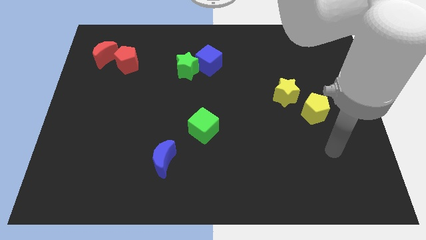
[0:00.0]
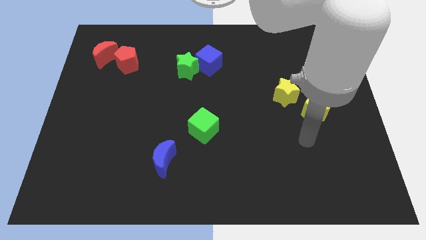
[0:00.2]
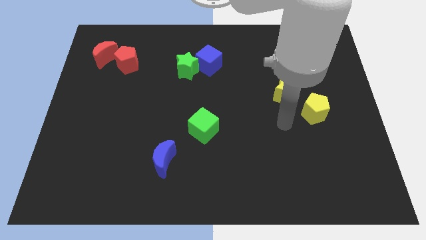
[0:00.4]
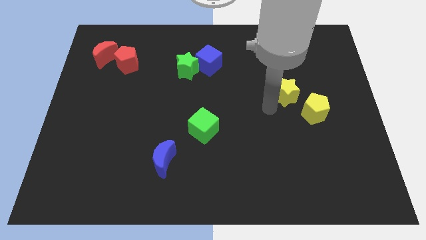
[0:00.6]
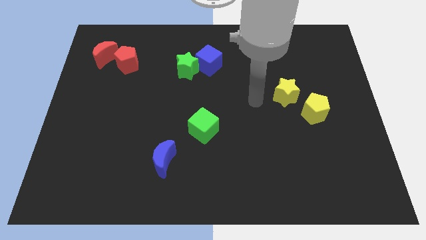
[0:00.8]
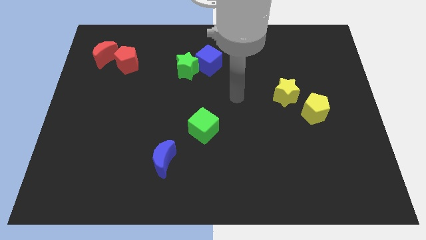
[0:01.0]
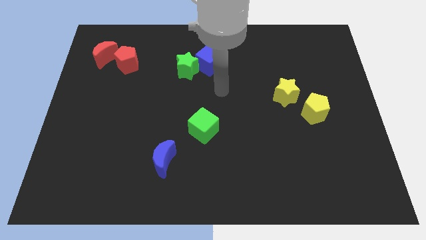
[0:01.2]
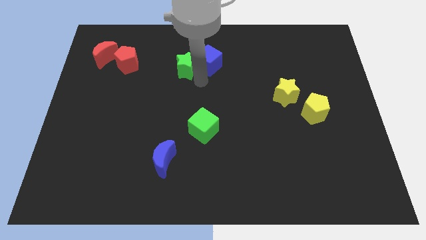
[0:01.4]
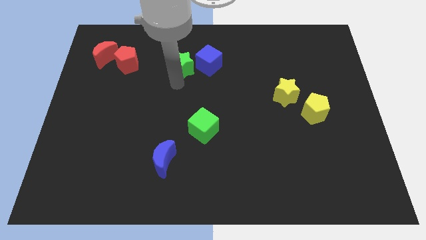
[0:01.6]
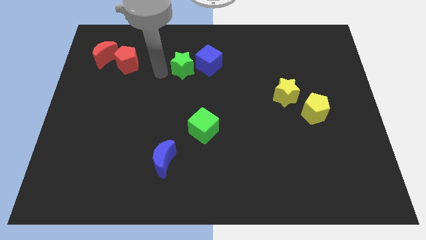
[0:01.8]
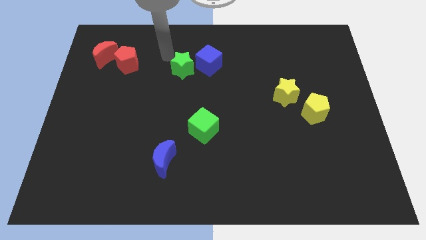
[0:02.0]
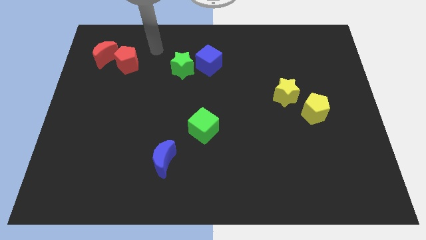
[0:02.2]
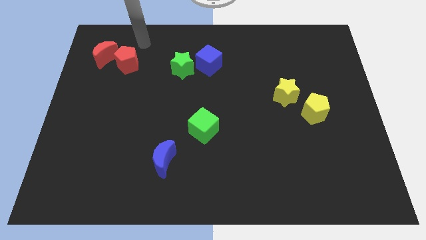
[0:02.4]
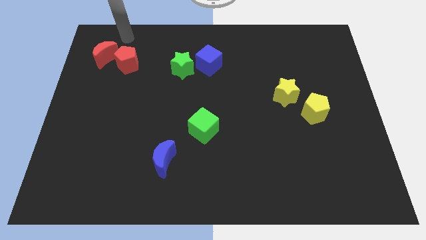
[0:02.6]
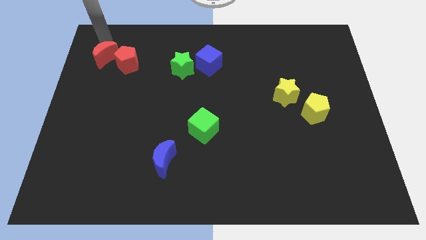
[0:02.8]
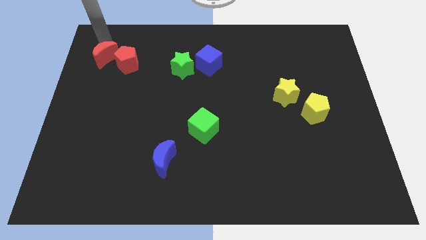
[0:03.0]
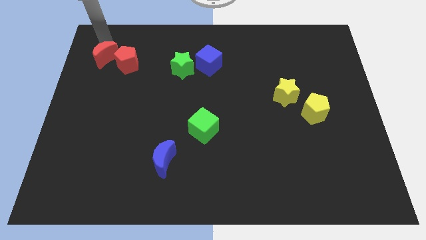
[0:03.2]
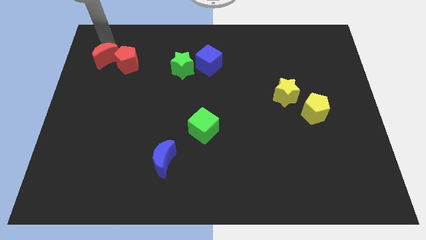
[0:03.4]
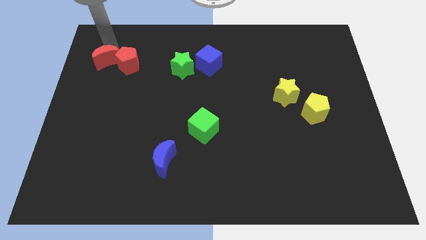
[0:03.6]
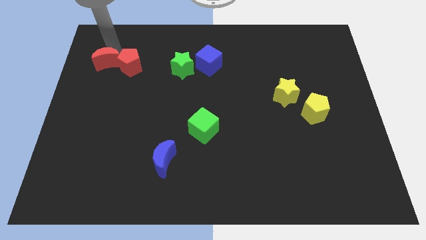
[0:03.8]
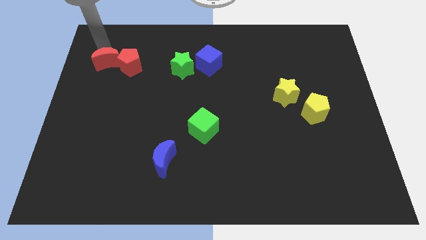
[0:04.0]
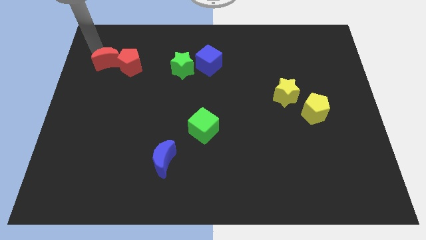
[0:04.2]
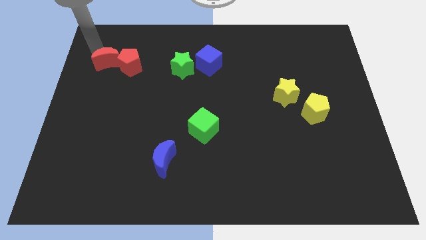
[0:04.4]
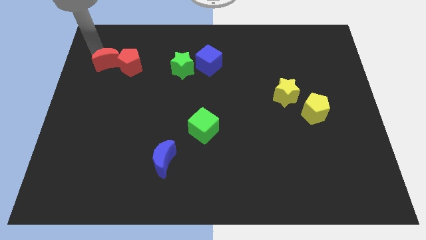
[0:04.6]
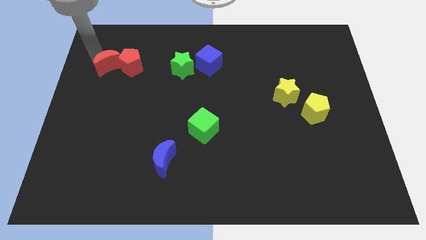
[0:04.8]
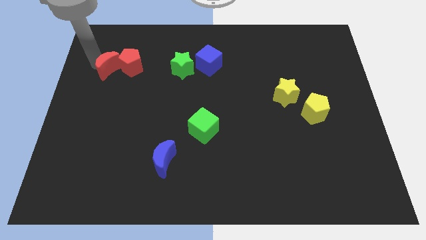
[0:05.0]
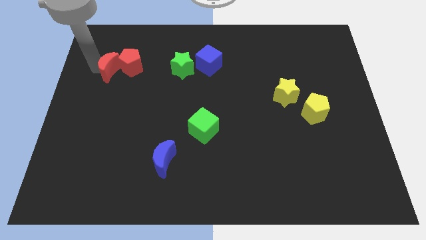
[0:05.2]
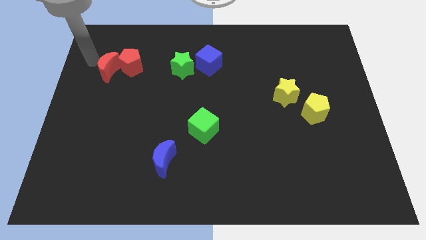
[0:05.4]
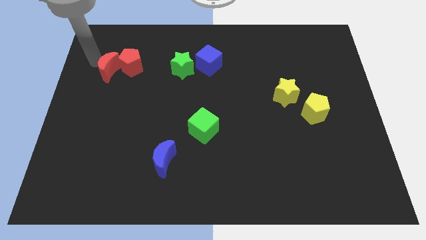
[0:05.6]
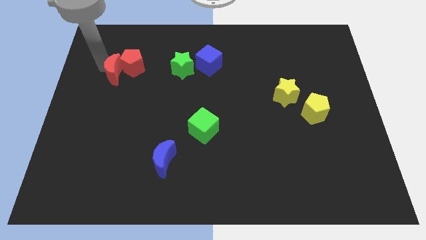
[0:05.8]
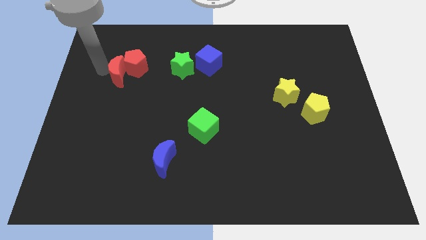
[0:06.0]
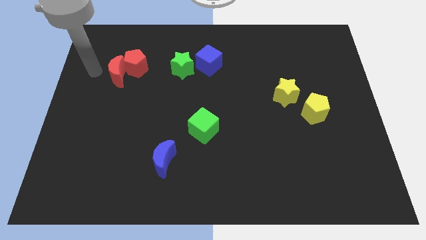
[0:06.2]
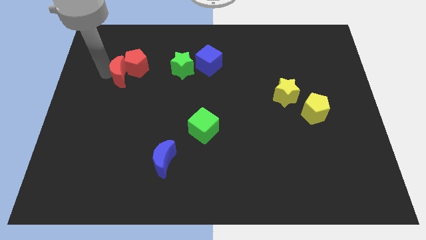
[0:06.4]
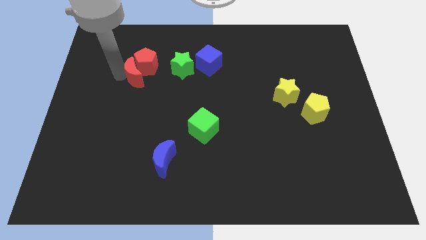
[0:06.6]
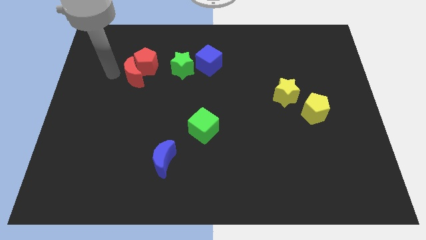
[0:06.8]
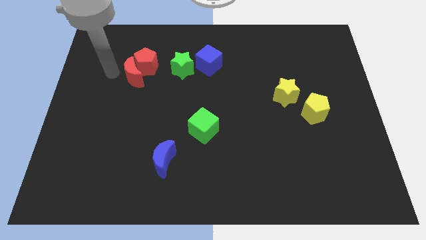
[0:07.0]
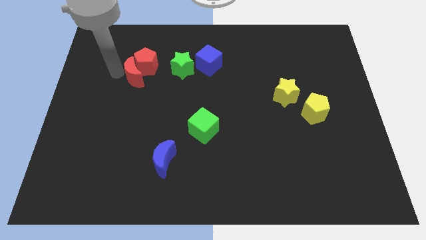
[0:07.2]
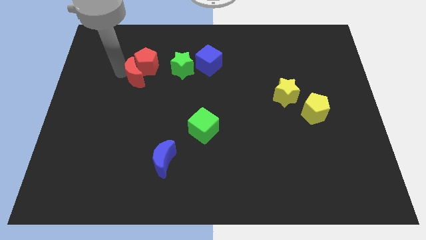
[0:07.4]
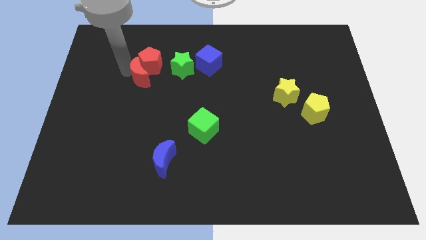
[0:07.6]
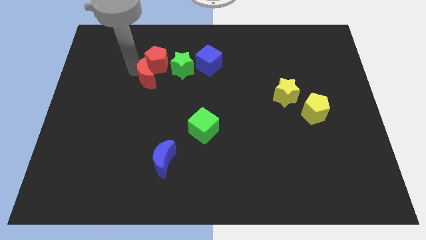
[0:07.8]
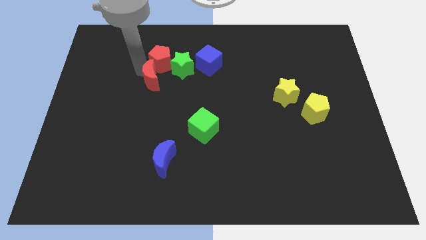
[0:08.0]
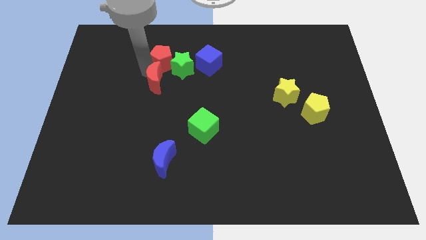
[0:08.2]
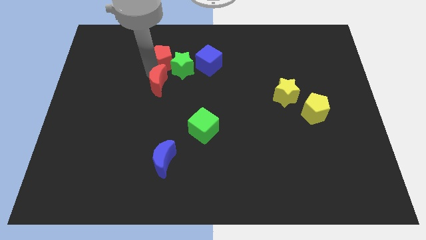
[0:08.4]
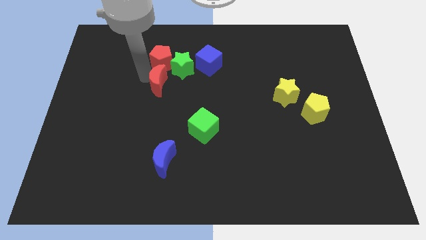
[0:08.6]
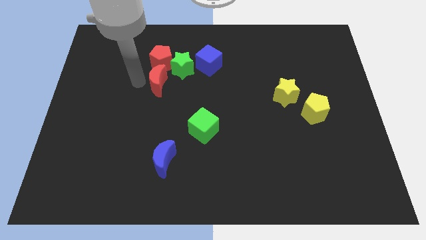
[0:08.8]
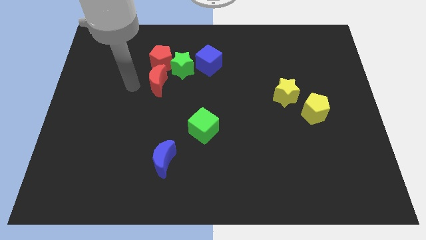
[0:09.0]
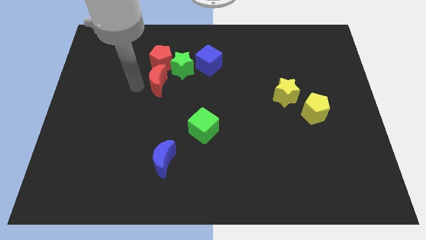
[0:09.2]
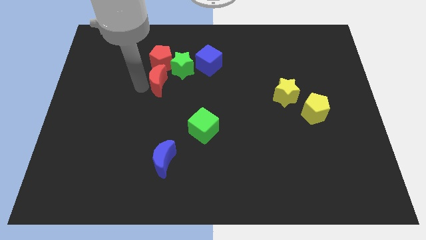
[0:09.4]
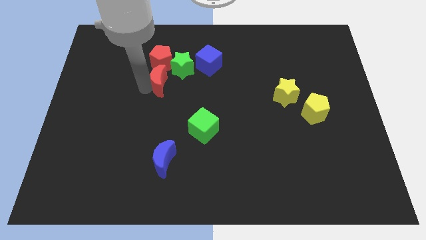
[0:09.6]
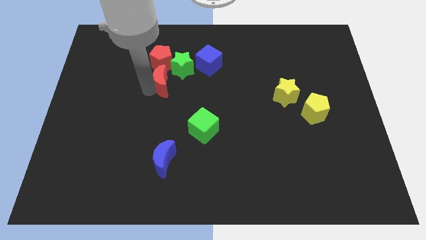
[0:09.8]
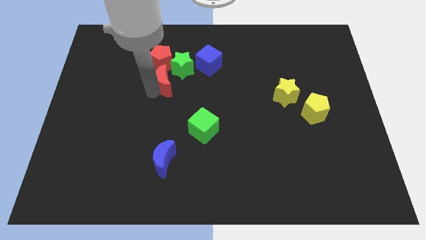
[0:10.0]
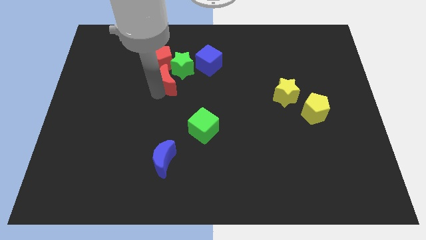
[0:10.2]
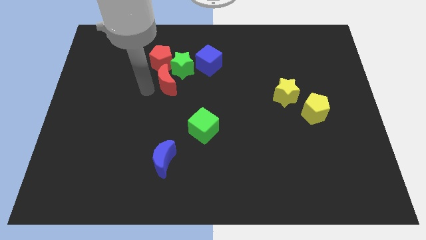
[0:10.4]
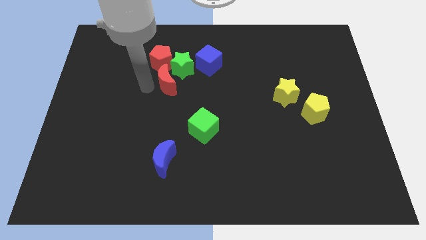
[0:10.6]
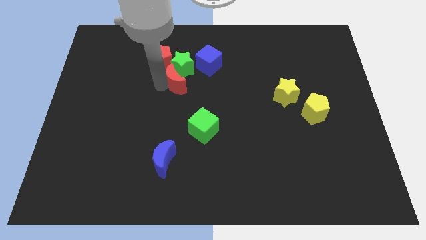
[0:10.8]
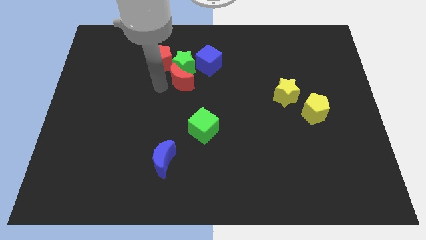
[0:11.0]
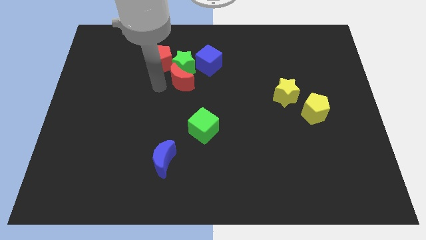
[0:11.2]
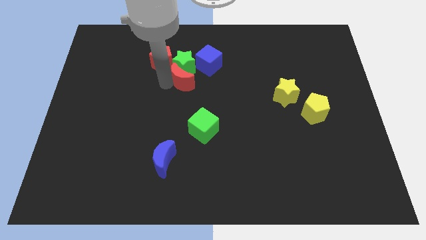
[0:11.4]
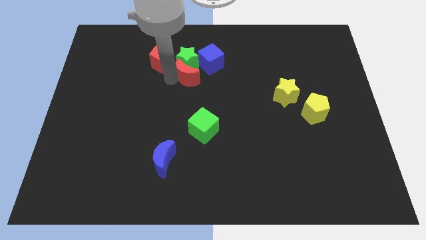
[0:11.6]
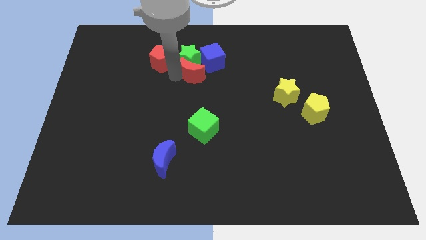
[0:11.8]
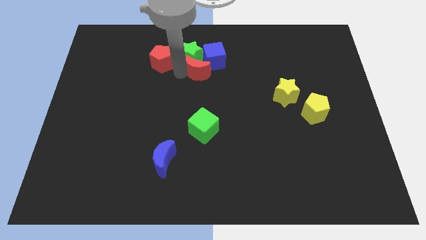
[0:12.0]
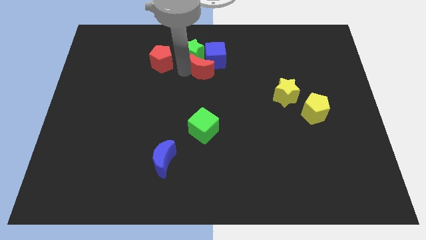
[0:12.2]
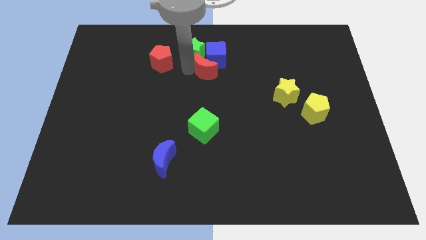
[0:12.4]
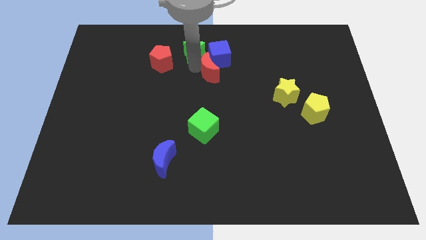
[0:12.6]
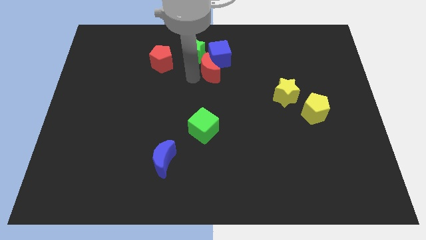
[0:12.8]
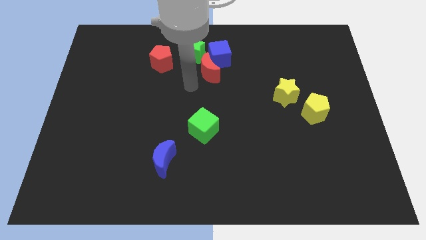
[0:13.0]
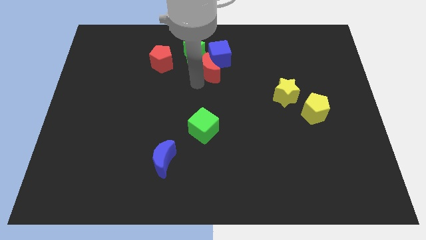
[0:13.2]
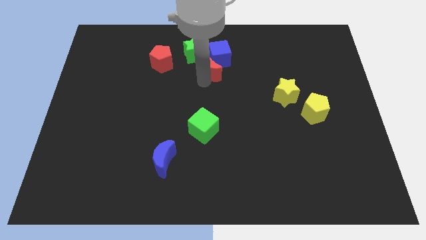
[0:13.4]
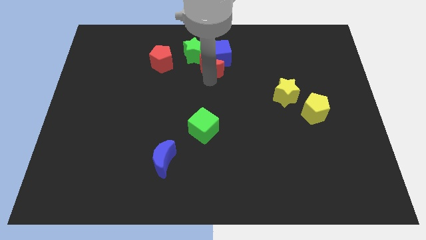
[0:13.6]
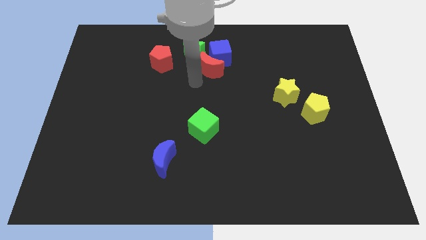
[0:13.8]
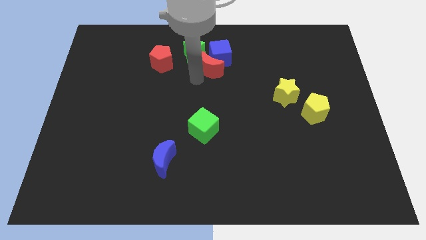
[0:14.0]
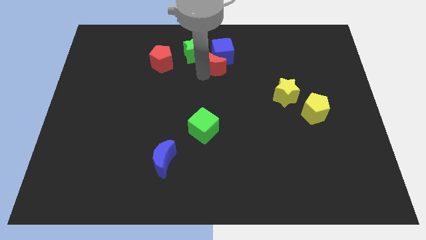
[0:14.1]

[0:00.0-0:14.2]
push the red moon just right of the green star
